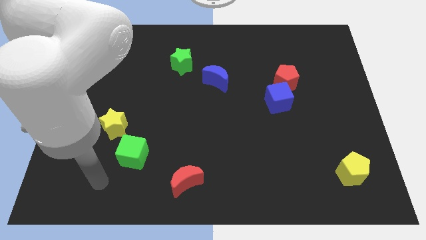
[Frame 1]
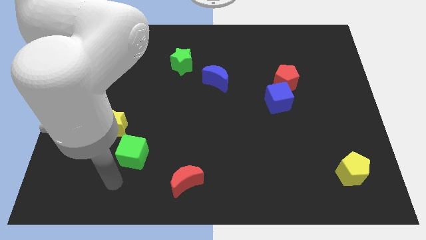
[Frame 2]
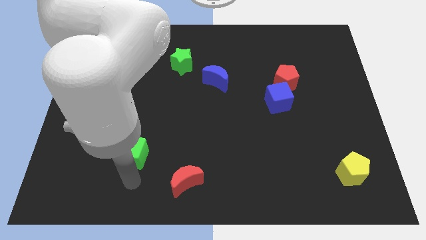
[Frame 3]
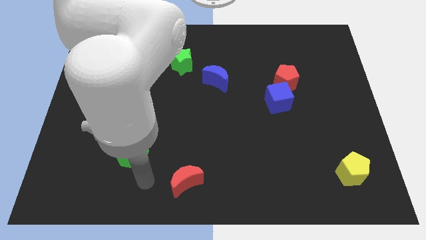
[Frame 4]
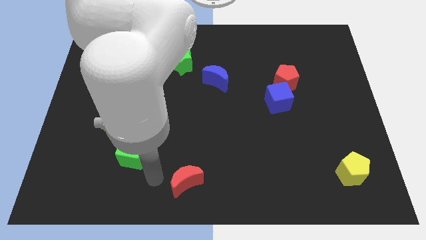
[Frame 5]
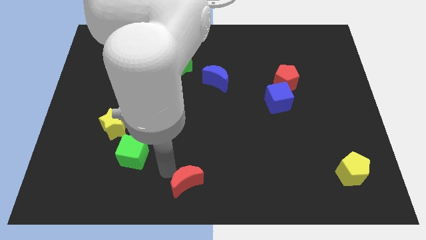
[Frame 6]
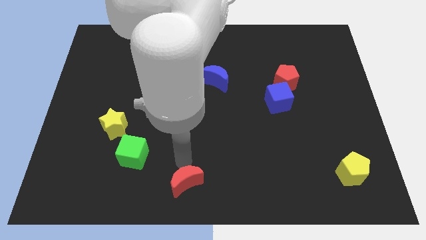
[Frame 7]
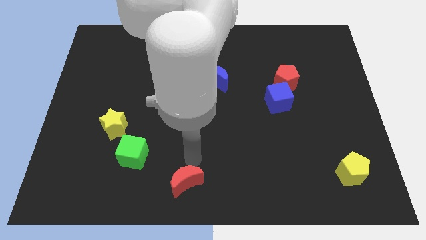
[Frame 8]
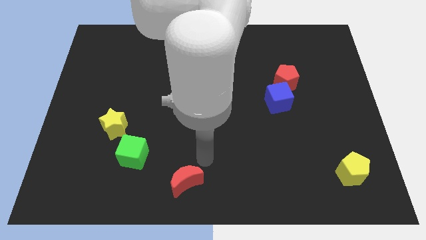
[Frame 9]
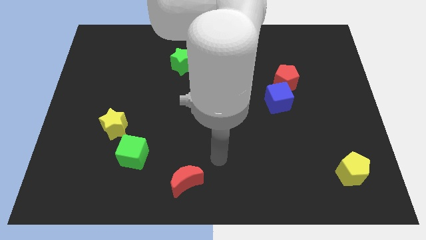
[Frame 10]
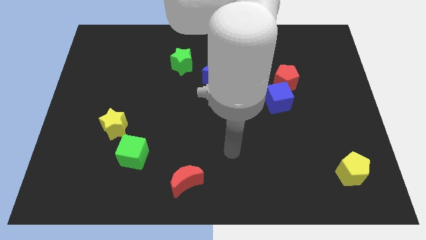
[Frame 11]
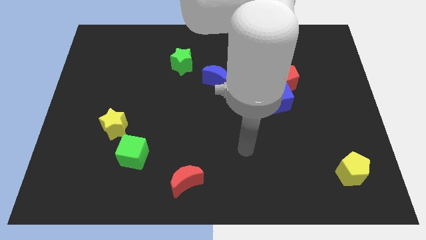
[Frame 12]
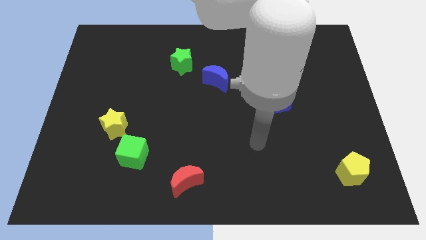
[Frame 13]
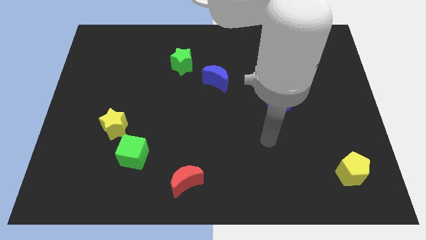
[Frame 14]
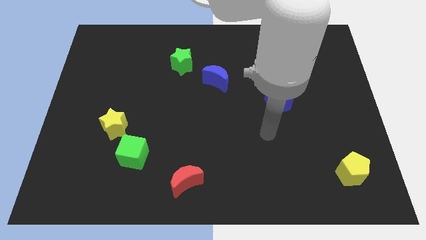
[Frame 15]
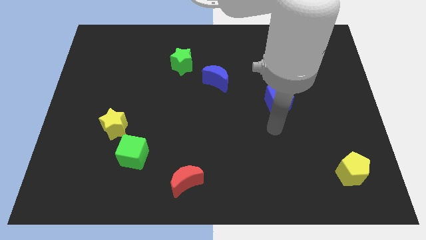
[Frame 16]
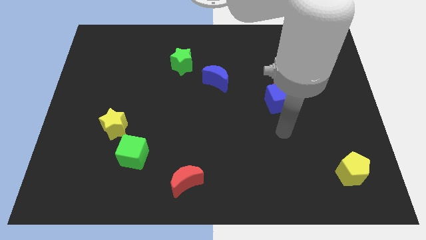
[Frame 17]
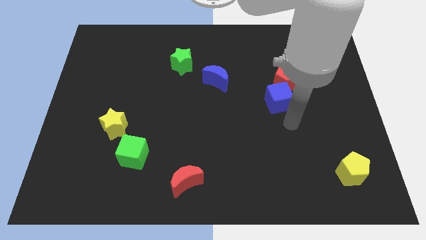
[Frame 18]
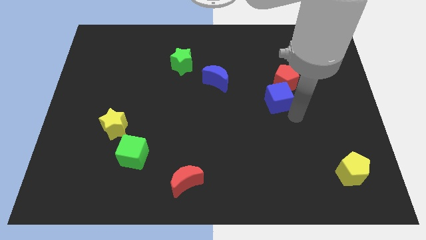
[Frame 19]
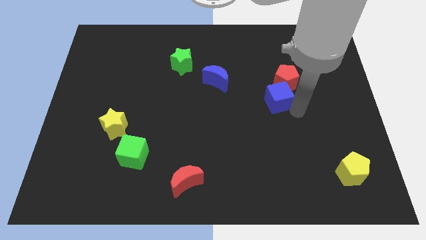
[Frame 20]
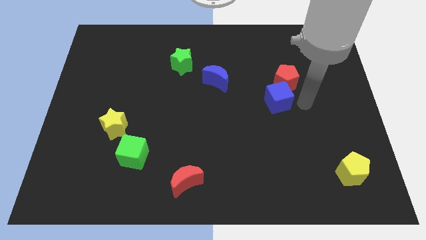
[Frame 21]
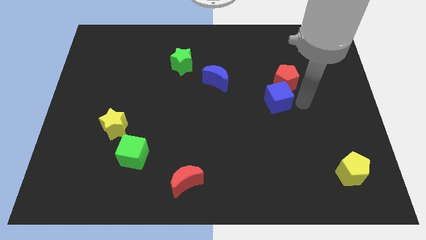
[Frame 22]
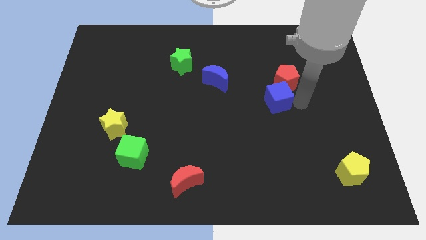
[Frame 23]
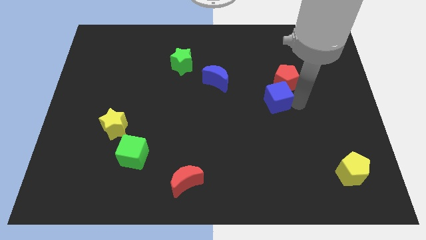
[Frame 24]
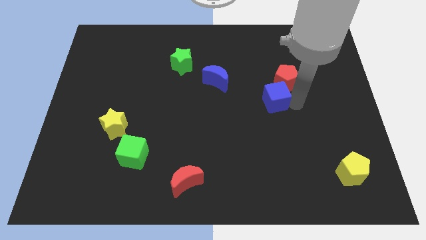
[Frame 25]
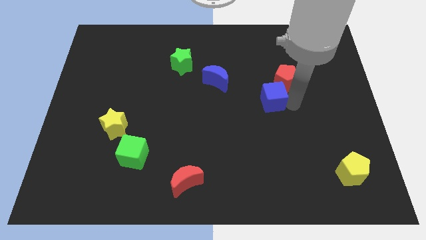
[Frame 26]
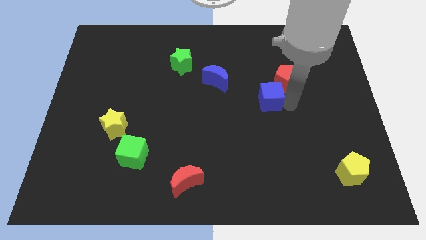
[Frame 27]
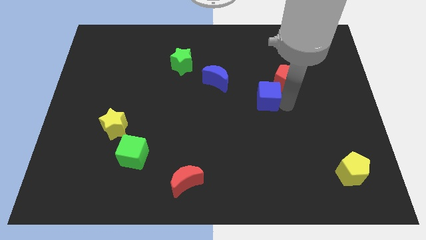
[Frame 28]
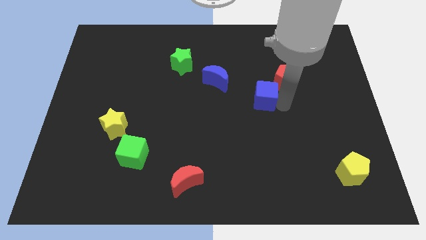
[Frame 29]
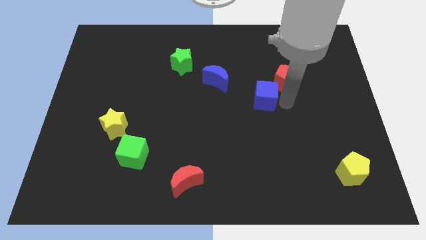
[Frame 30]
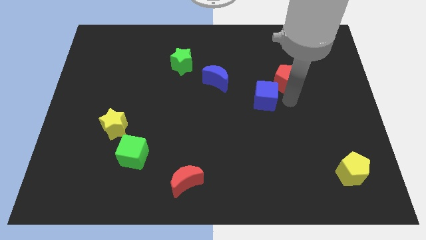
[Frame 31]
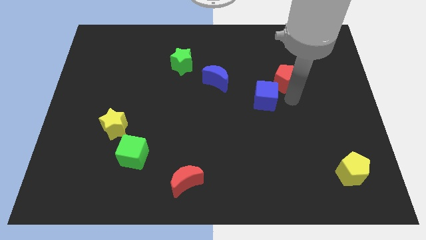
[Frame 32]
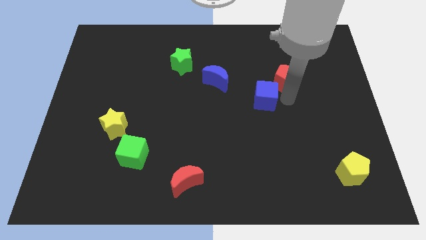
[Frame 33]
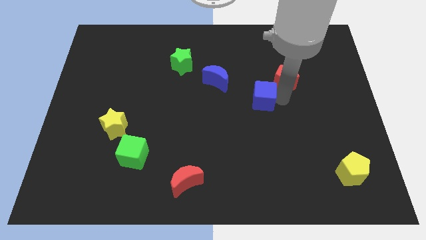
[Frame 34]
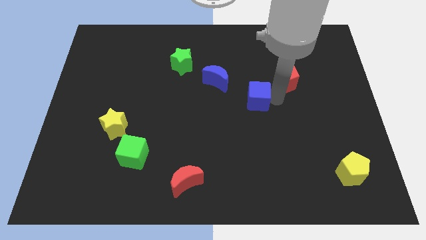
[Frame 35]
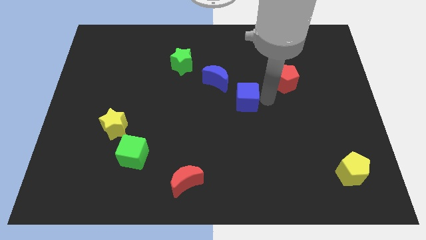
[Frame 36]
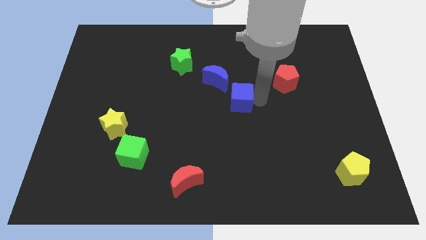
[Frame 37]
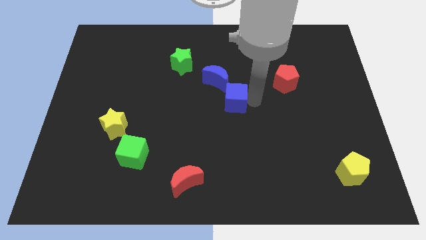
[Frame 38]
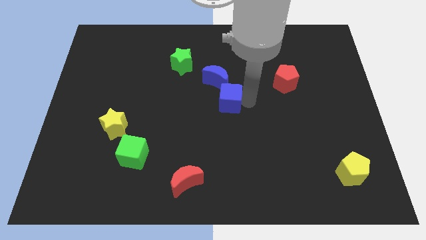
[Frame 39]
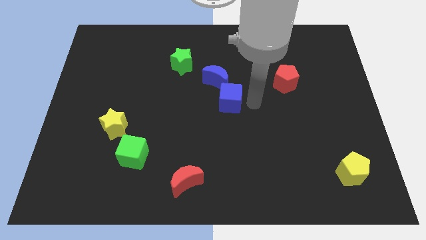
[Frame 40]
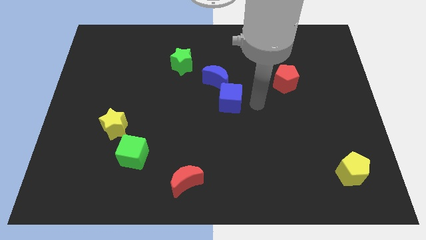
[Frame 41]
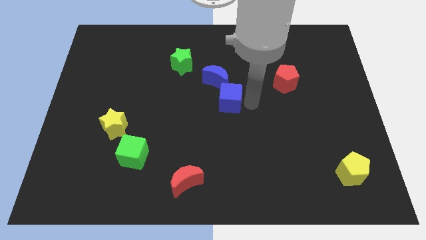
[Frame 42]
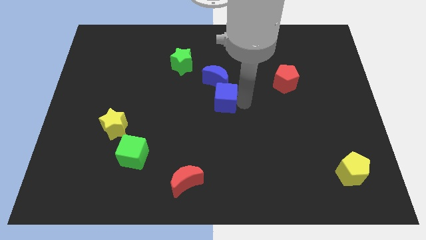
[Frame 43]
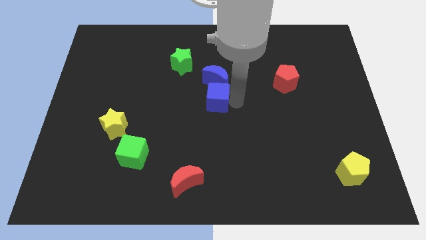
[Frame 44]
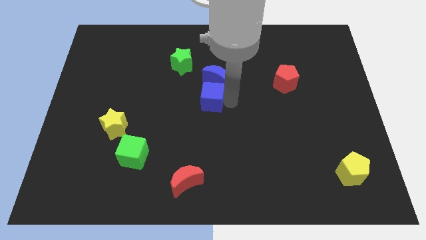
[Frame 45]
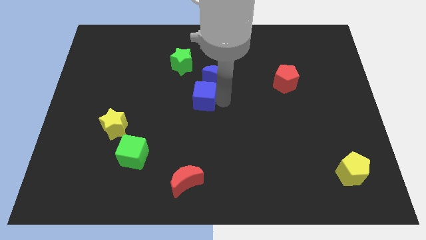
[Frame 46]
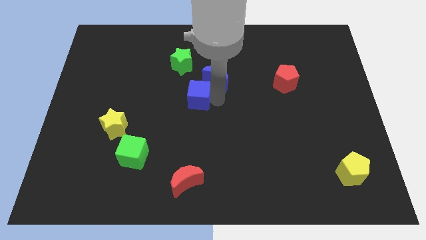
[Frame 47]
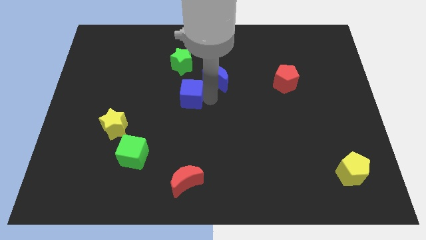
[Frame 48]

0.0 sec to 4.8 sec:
move the blue cube to the left

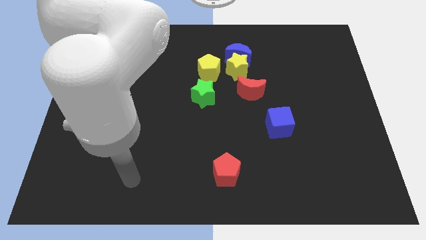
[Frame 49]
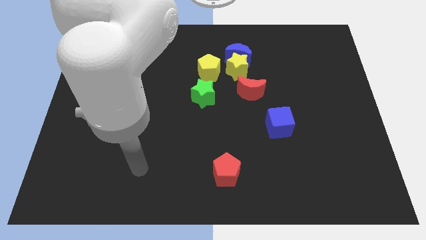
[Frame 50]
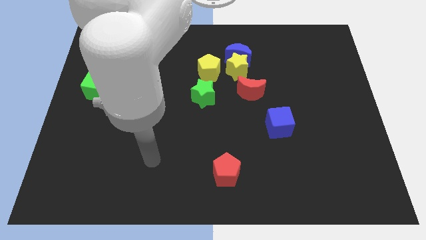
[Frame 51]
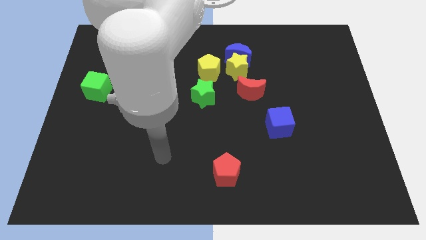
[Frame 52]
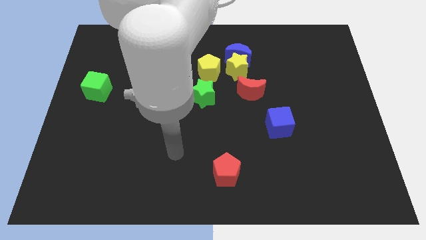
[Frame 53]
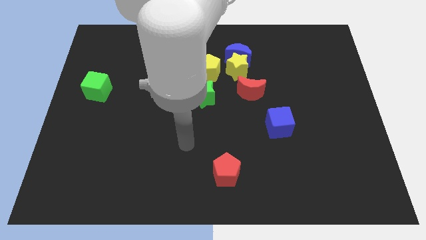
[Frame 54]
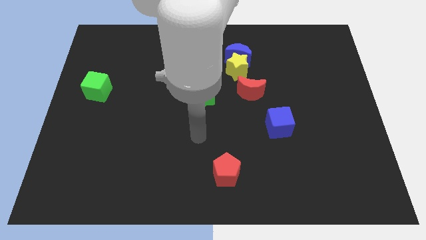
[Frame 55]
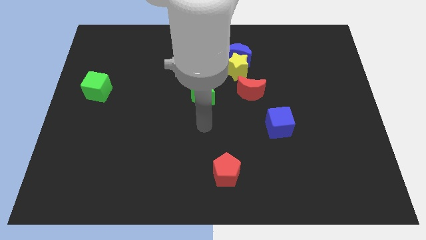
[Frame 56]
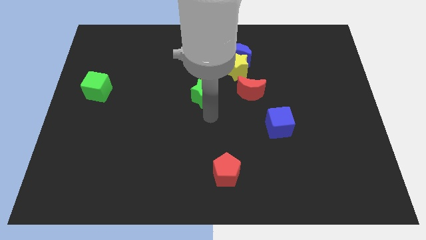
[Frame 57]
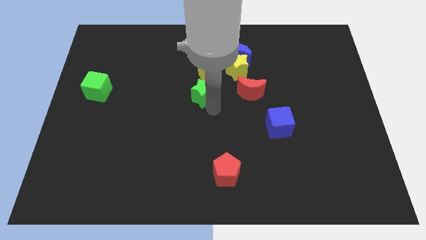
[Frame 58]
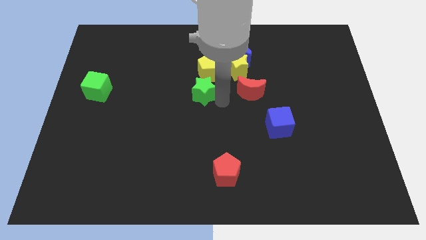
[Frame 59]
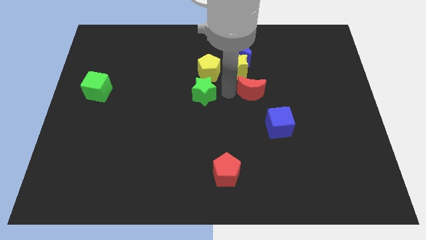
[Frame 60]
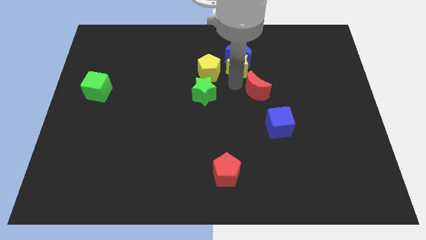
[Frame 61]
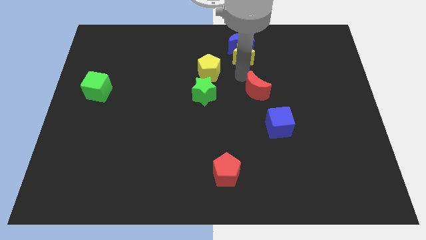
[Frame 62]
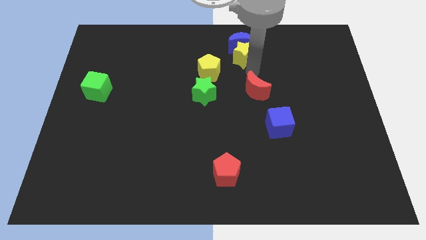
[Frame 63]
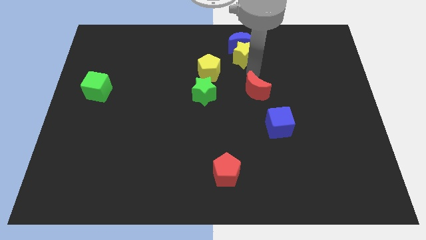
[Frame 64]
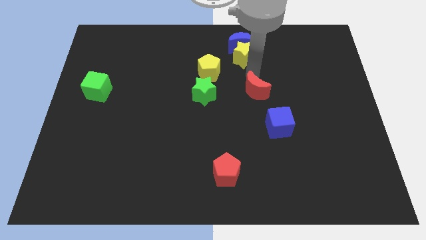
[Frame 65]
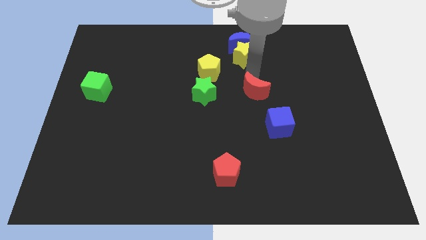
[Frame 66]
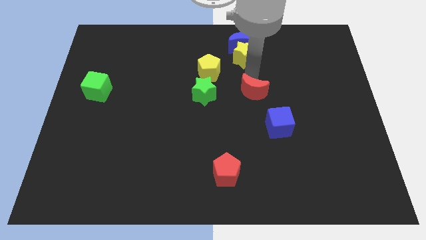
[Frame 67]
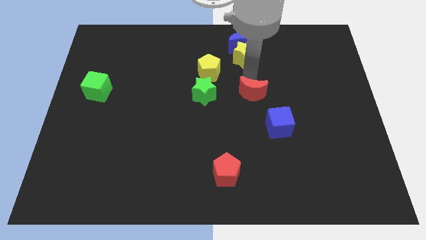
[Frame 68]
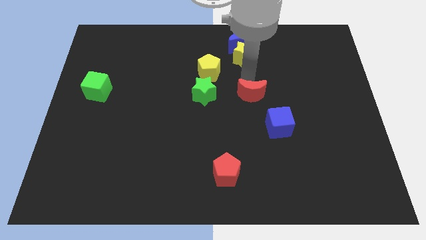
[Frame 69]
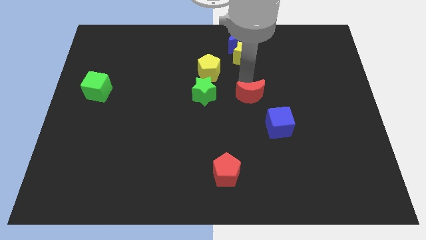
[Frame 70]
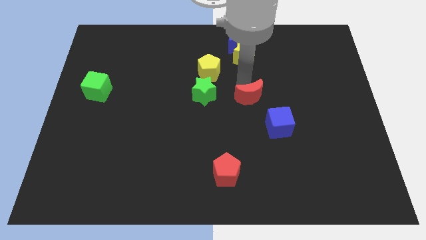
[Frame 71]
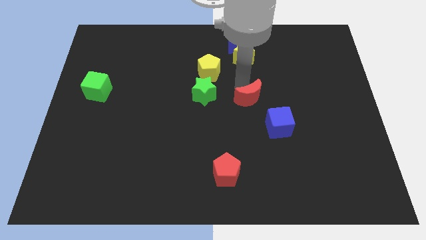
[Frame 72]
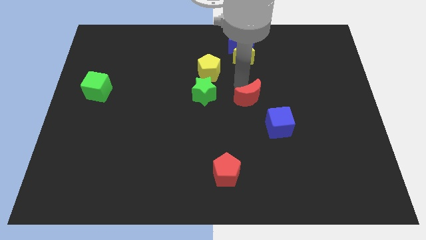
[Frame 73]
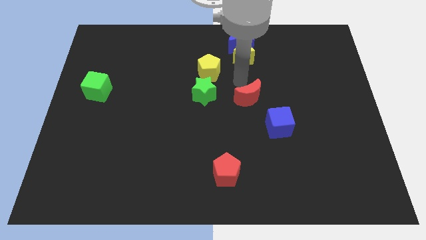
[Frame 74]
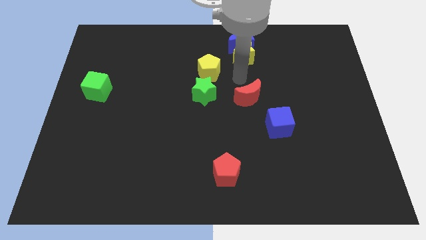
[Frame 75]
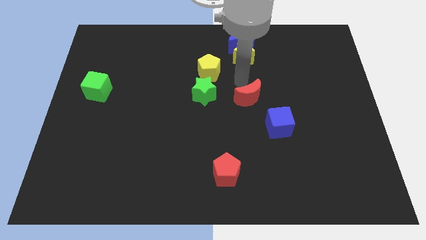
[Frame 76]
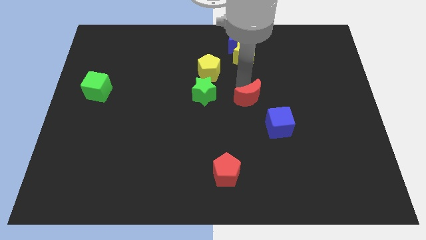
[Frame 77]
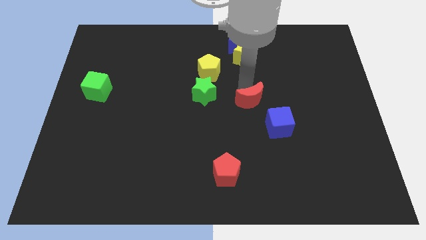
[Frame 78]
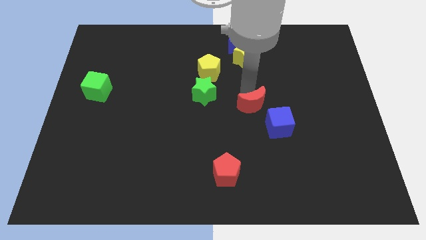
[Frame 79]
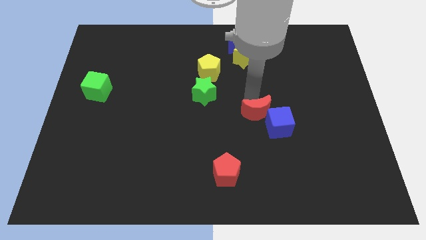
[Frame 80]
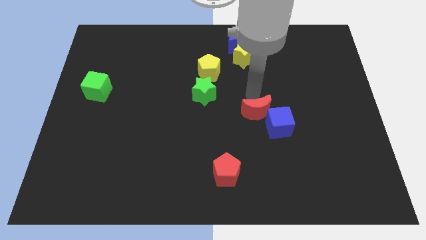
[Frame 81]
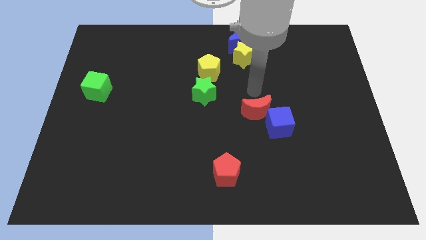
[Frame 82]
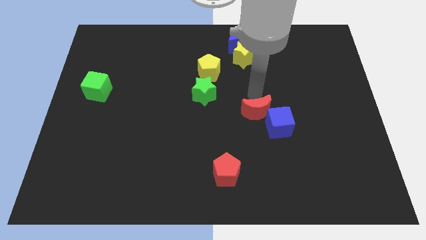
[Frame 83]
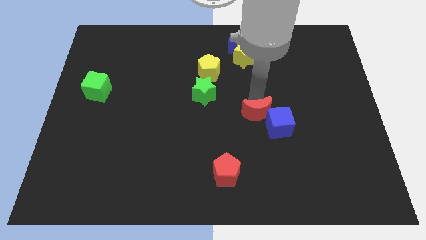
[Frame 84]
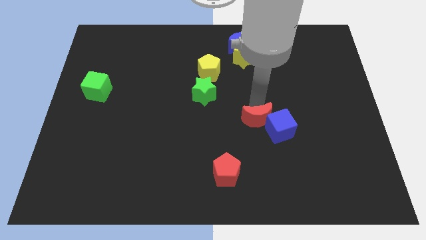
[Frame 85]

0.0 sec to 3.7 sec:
move the red moon downwards a little
